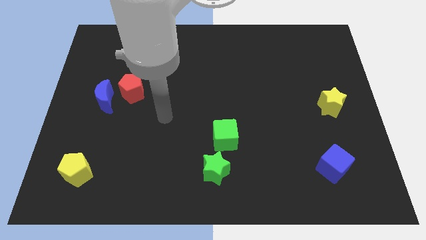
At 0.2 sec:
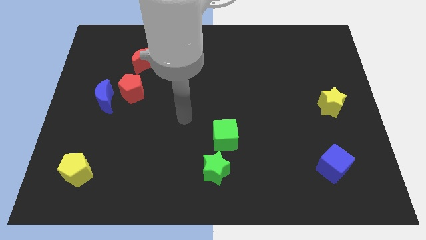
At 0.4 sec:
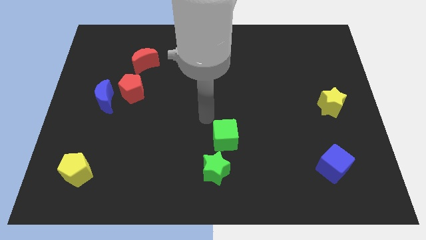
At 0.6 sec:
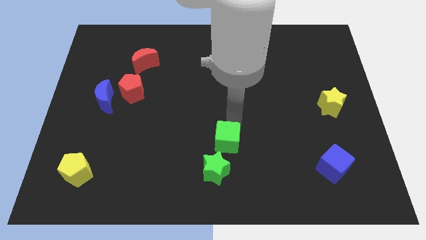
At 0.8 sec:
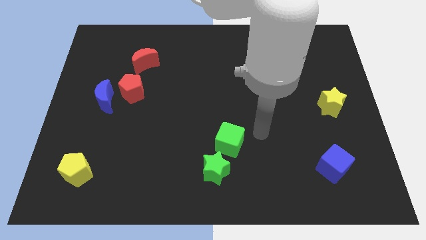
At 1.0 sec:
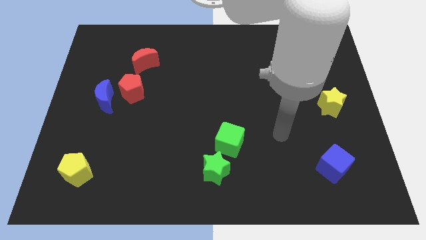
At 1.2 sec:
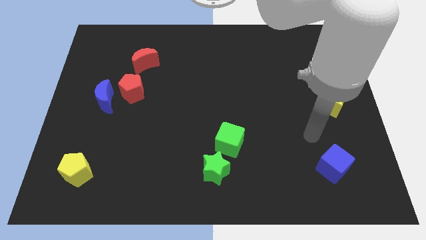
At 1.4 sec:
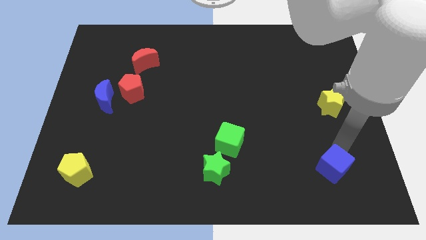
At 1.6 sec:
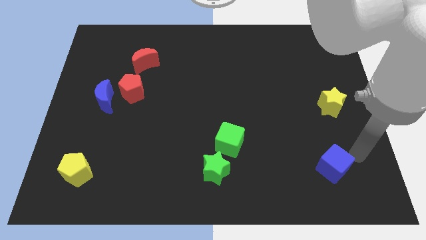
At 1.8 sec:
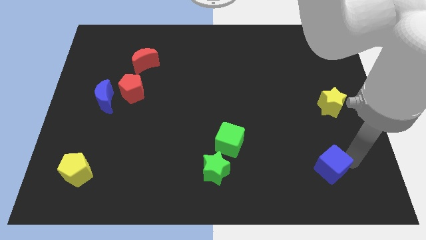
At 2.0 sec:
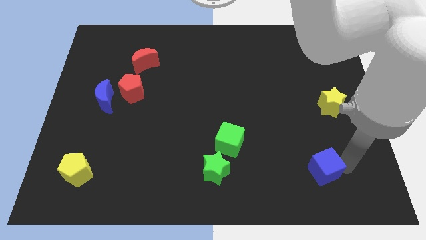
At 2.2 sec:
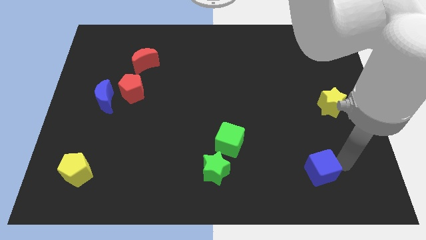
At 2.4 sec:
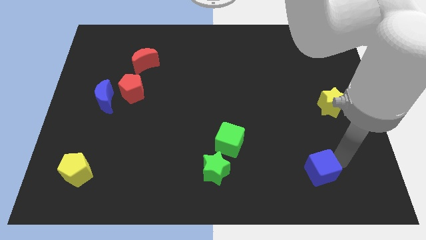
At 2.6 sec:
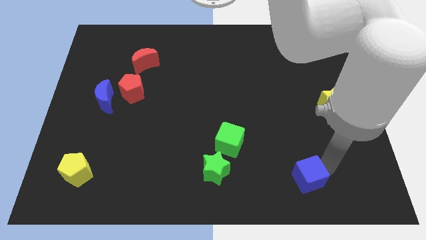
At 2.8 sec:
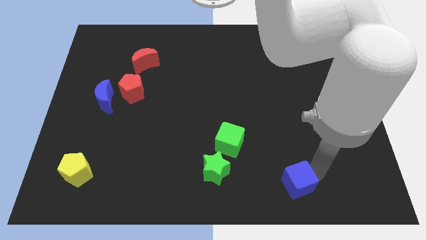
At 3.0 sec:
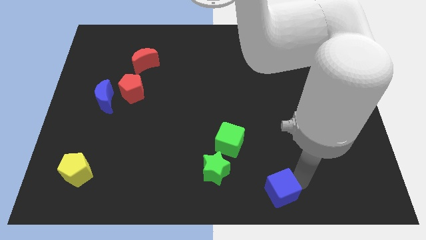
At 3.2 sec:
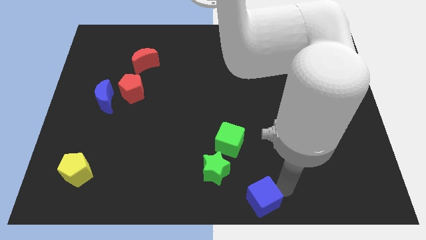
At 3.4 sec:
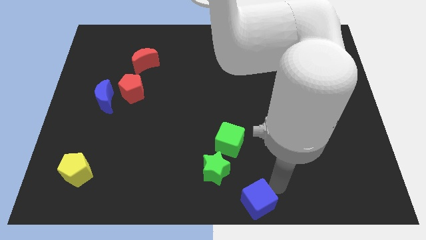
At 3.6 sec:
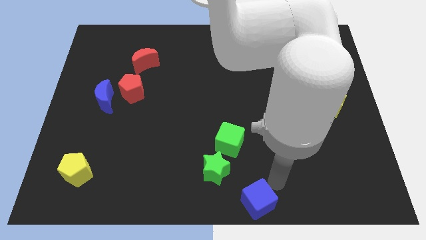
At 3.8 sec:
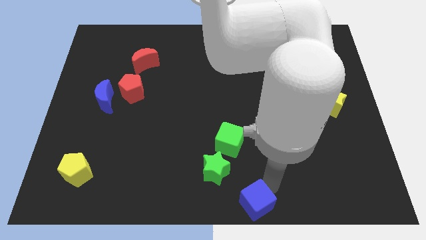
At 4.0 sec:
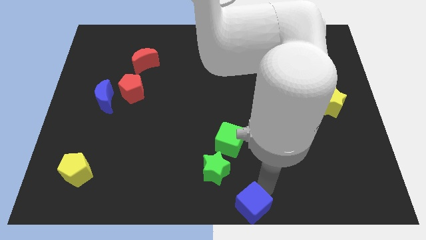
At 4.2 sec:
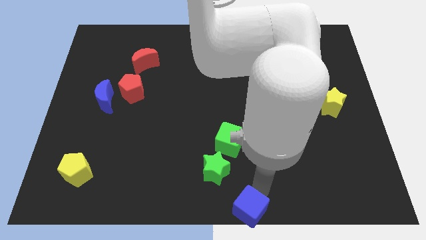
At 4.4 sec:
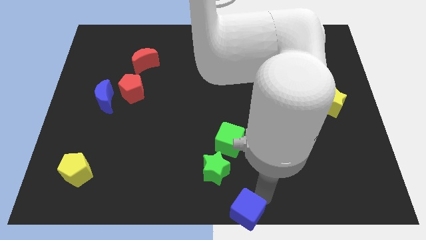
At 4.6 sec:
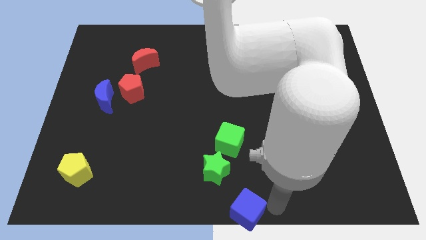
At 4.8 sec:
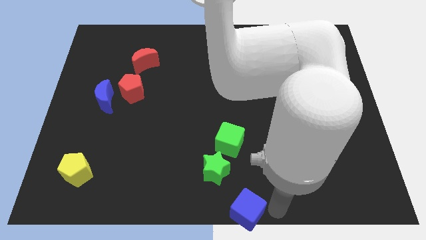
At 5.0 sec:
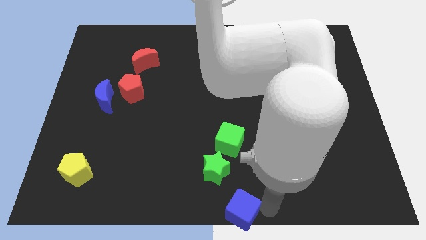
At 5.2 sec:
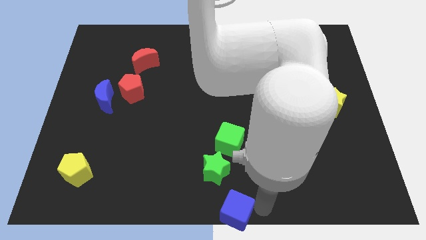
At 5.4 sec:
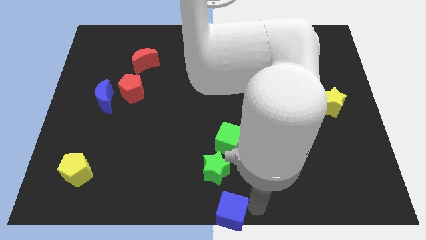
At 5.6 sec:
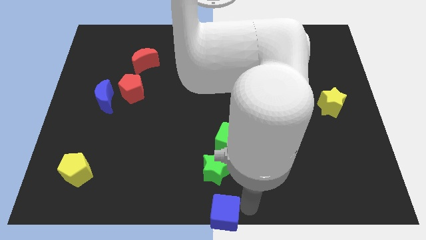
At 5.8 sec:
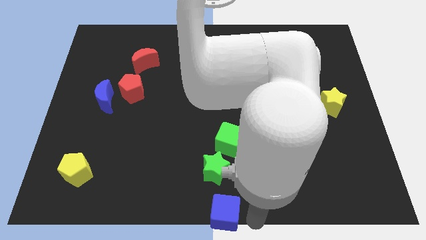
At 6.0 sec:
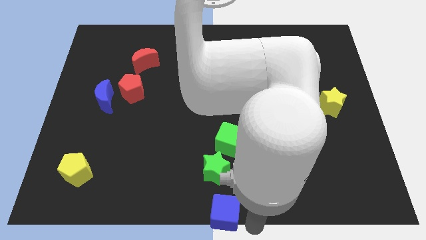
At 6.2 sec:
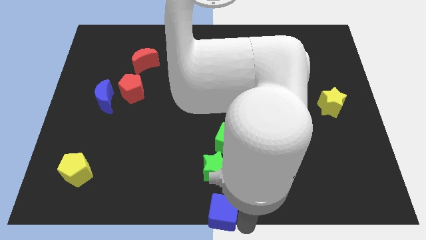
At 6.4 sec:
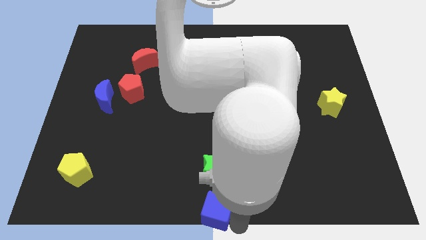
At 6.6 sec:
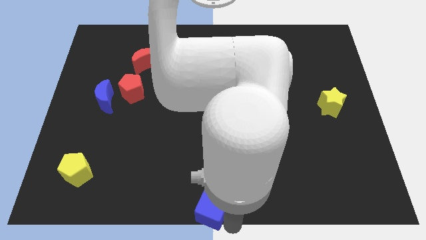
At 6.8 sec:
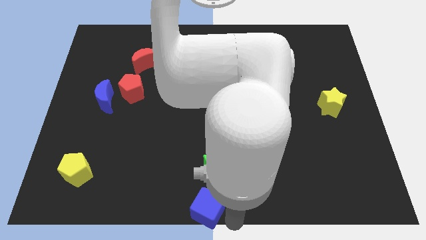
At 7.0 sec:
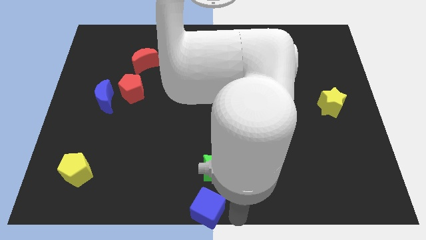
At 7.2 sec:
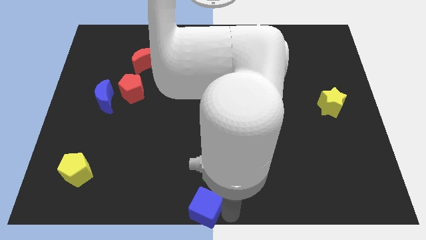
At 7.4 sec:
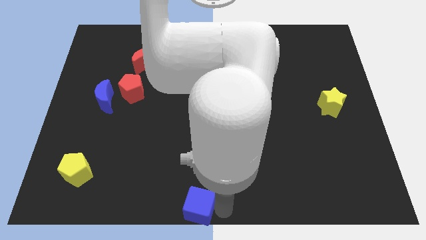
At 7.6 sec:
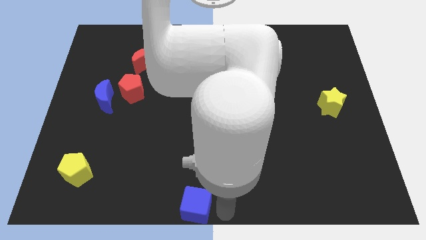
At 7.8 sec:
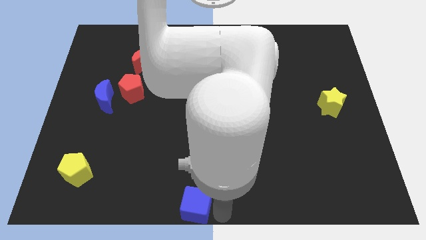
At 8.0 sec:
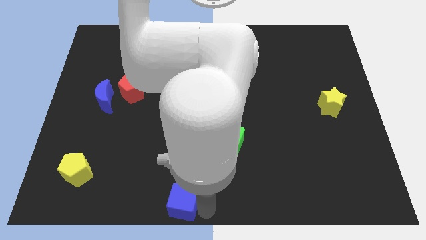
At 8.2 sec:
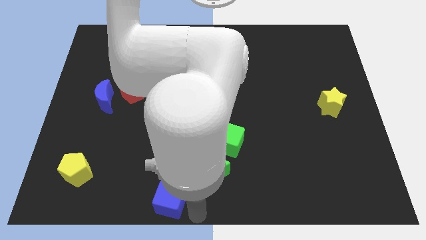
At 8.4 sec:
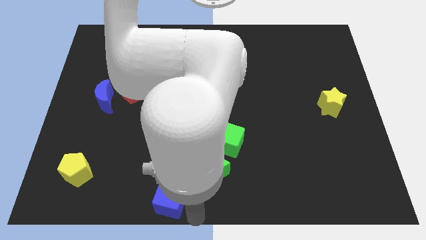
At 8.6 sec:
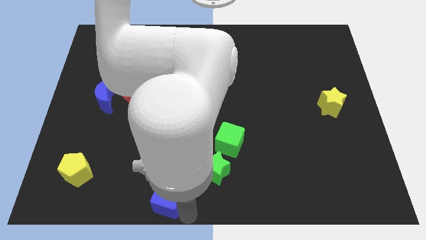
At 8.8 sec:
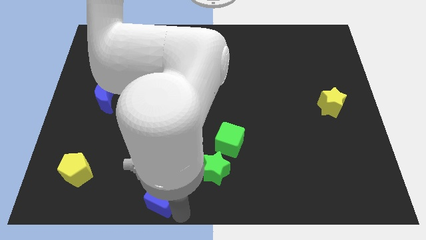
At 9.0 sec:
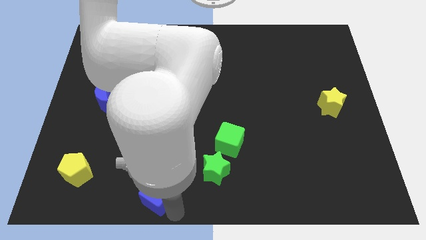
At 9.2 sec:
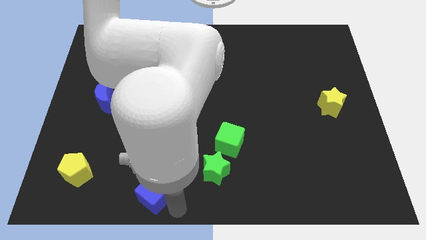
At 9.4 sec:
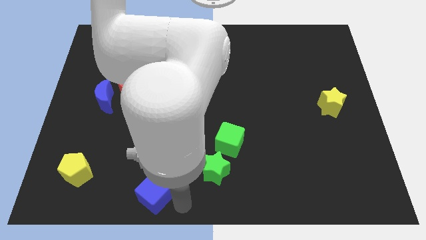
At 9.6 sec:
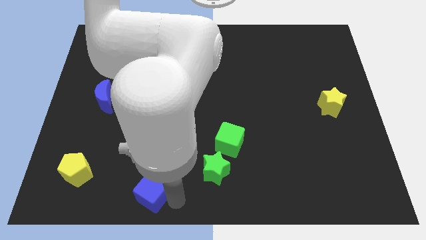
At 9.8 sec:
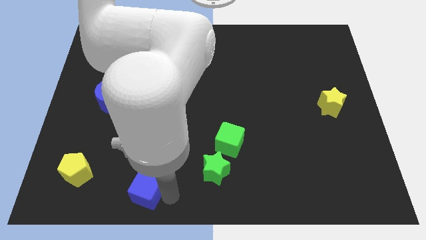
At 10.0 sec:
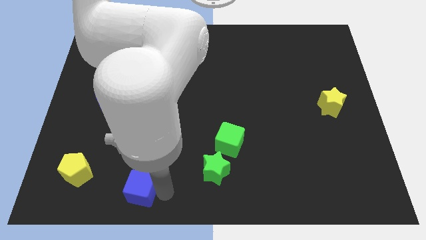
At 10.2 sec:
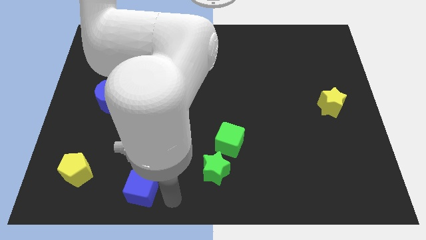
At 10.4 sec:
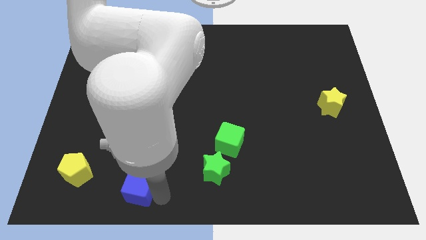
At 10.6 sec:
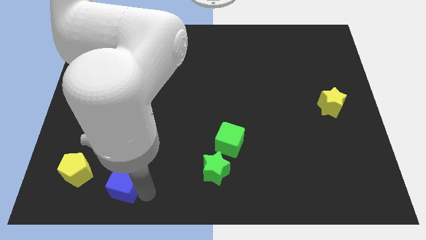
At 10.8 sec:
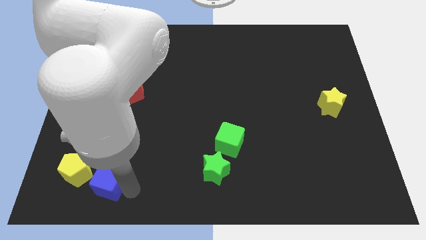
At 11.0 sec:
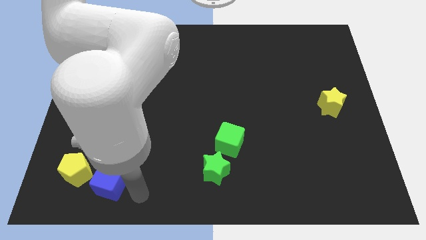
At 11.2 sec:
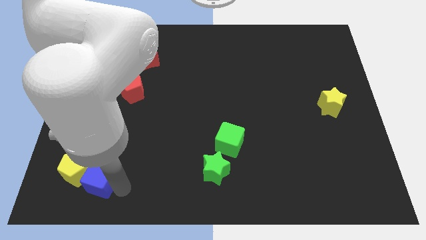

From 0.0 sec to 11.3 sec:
slide the blue cube next to the yellow pentagon
